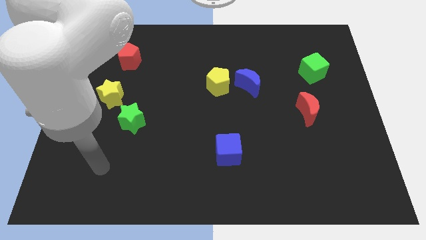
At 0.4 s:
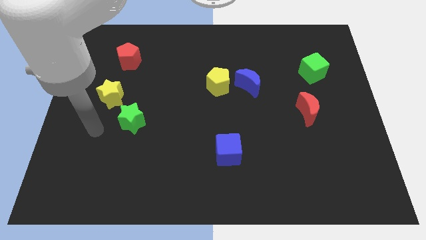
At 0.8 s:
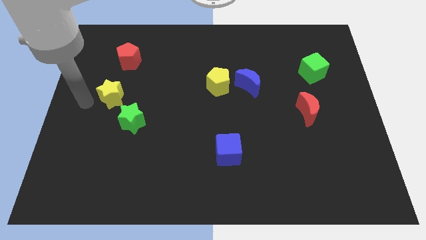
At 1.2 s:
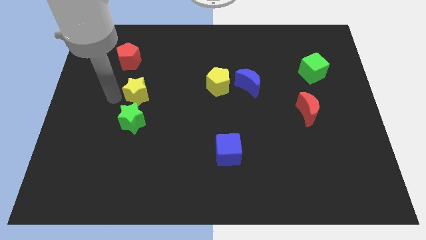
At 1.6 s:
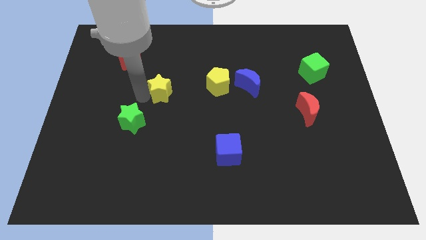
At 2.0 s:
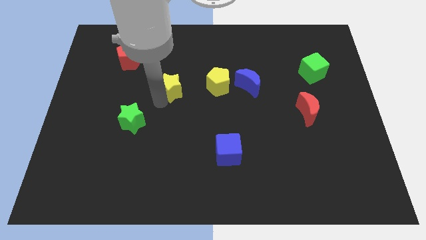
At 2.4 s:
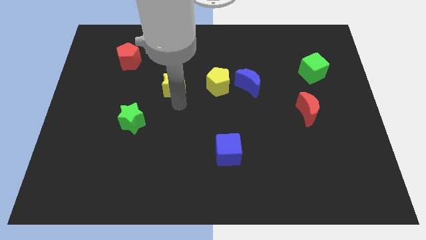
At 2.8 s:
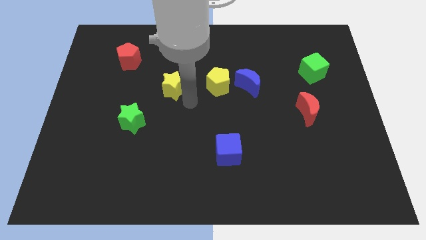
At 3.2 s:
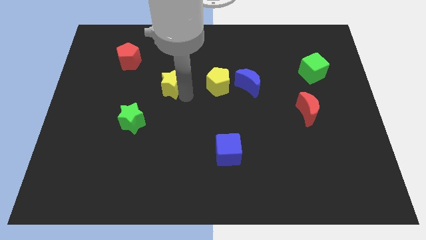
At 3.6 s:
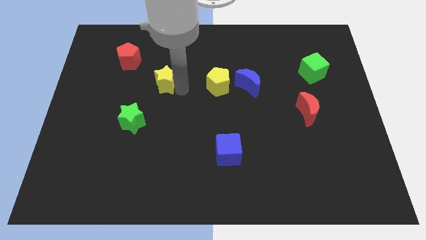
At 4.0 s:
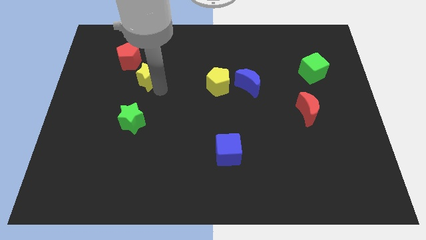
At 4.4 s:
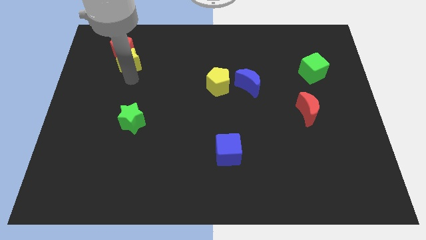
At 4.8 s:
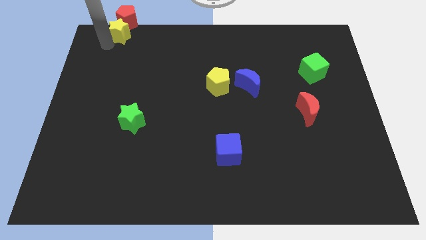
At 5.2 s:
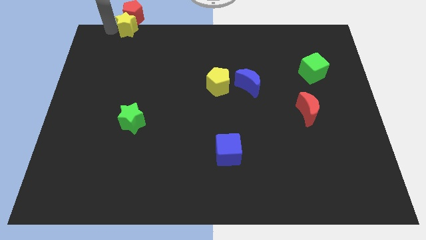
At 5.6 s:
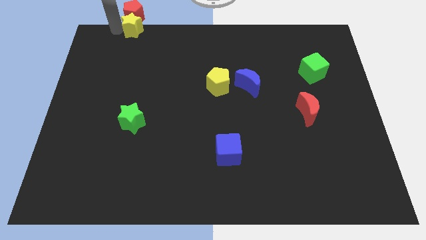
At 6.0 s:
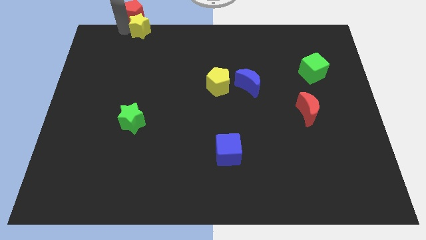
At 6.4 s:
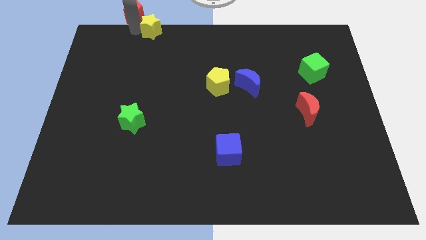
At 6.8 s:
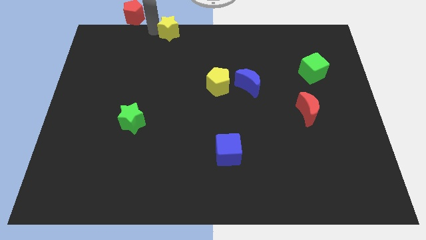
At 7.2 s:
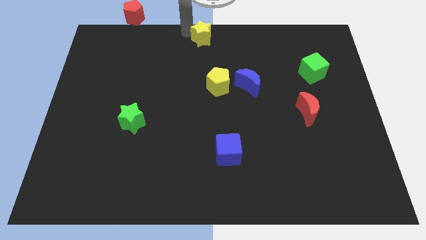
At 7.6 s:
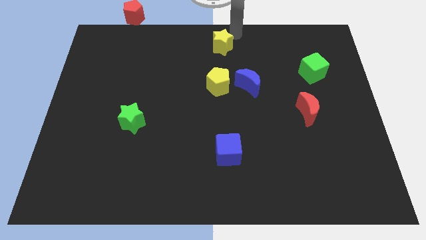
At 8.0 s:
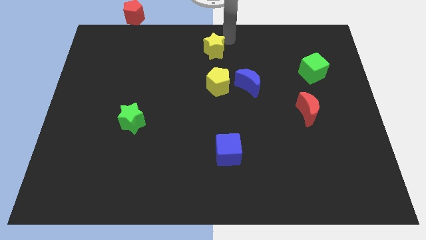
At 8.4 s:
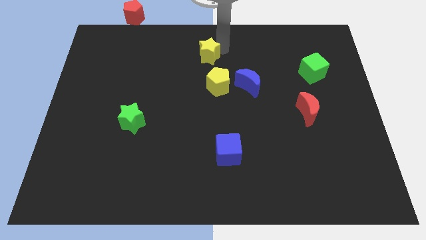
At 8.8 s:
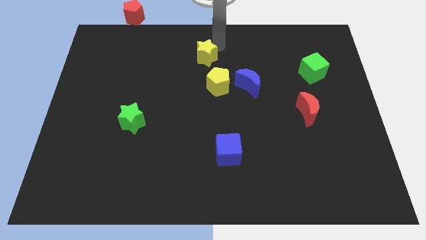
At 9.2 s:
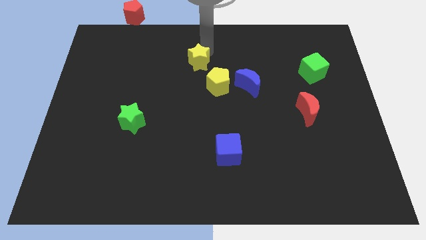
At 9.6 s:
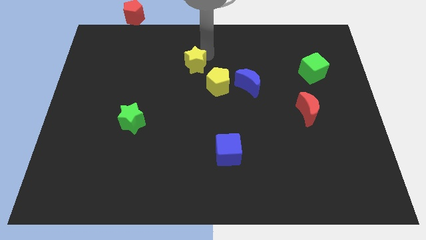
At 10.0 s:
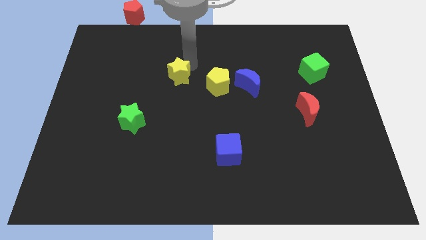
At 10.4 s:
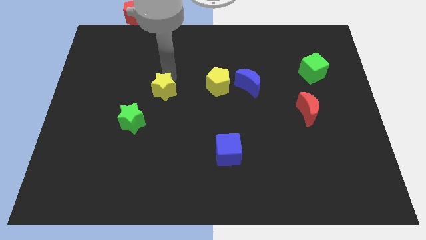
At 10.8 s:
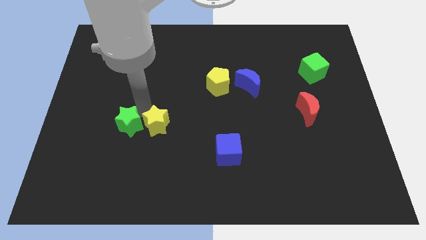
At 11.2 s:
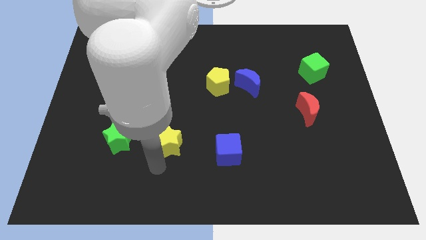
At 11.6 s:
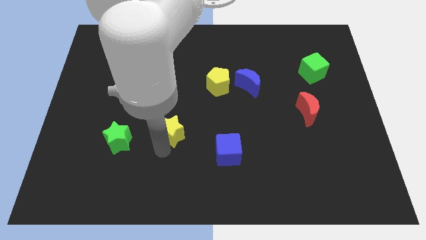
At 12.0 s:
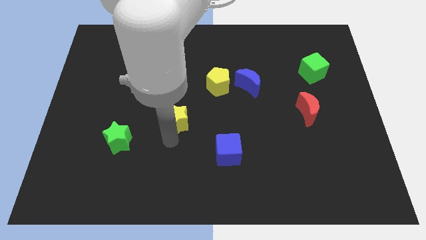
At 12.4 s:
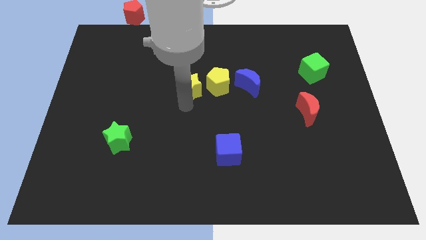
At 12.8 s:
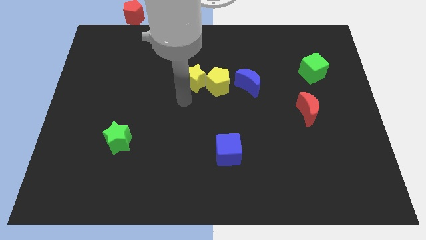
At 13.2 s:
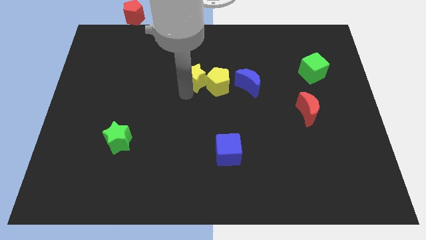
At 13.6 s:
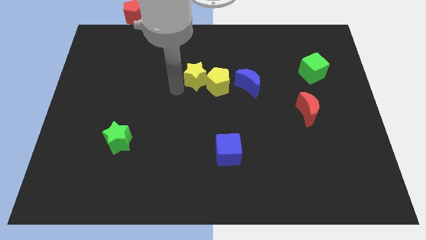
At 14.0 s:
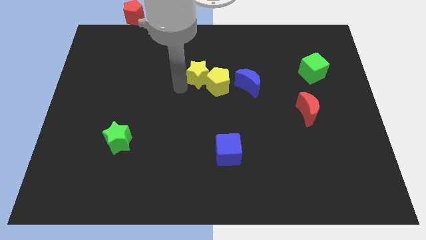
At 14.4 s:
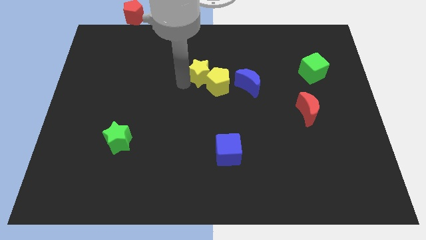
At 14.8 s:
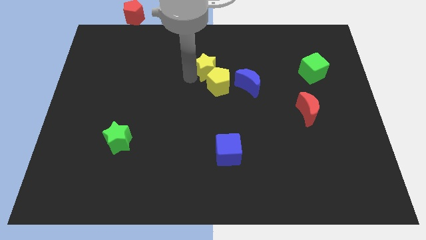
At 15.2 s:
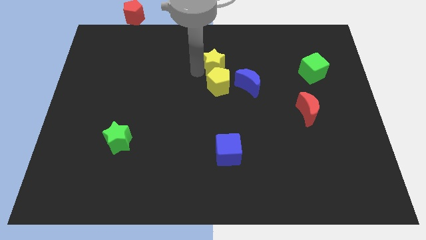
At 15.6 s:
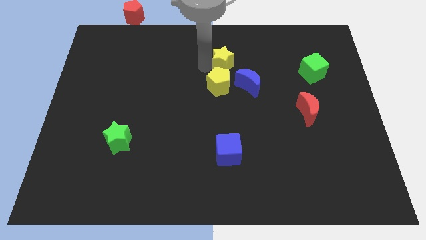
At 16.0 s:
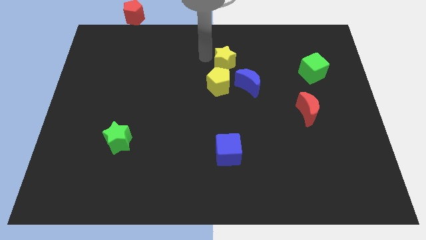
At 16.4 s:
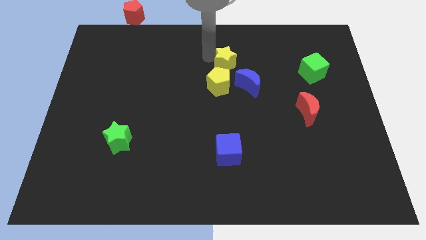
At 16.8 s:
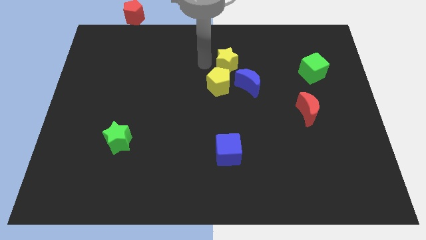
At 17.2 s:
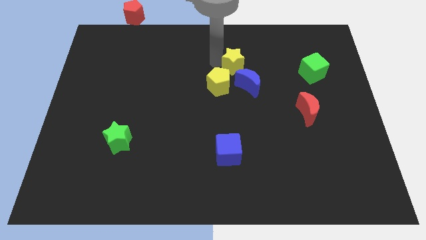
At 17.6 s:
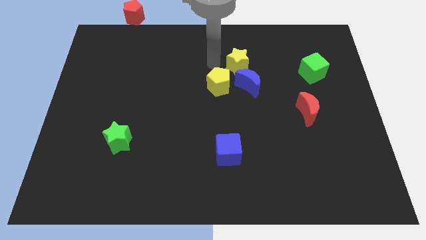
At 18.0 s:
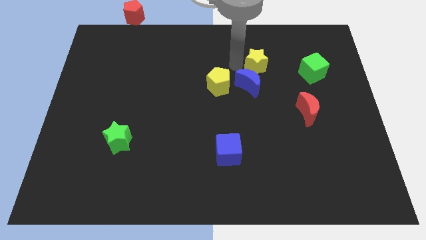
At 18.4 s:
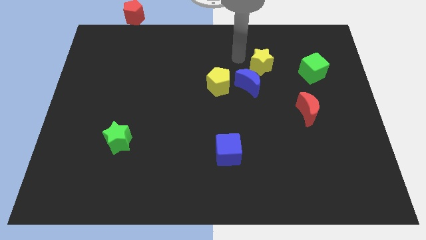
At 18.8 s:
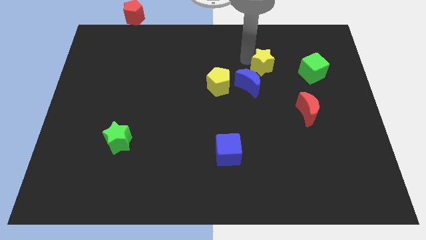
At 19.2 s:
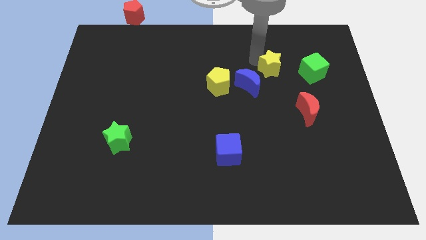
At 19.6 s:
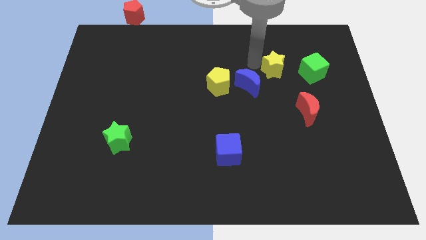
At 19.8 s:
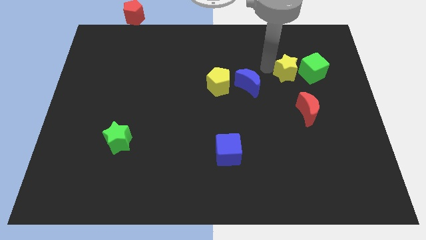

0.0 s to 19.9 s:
slide the yellow star above the red moon

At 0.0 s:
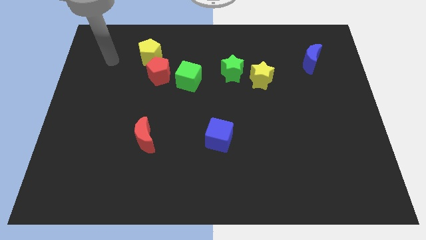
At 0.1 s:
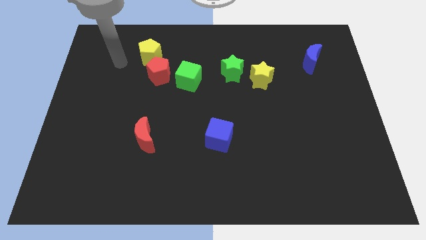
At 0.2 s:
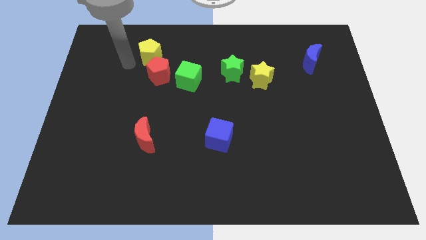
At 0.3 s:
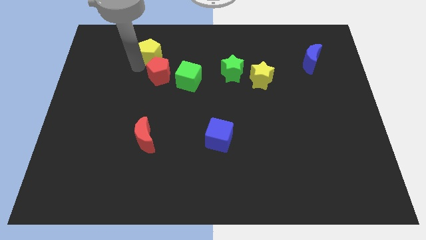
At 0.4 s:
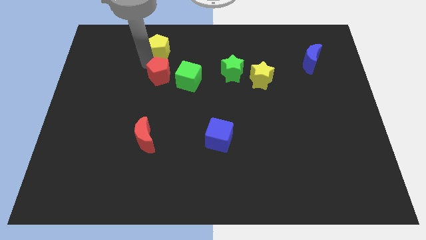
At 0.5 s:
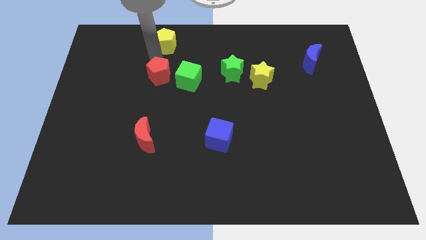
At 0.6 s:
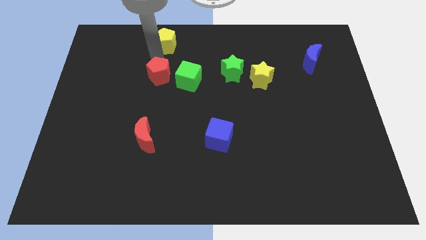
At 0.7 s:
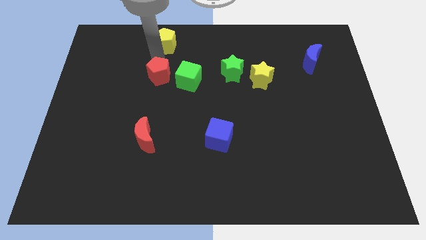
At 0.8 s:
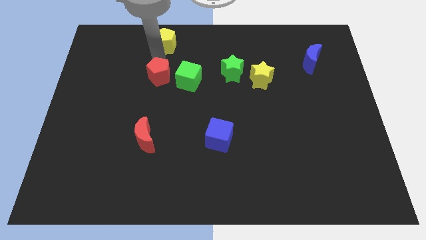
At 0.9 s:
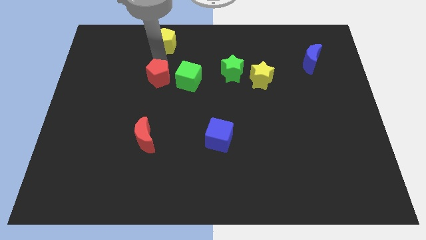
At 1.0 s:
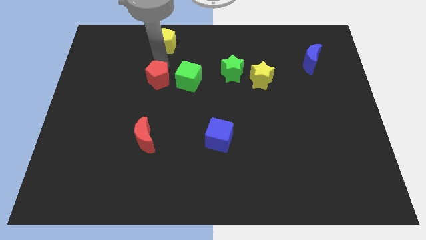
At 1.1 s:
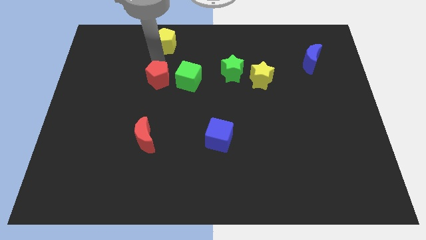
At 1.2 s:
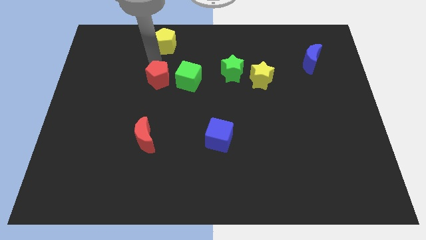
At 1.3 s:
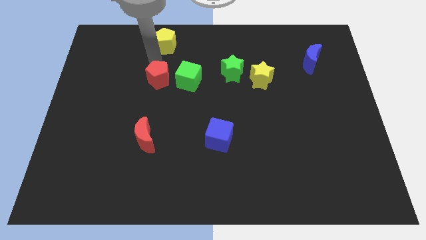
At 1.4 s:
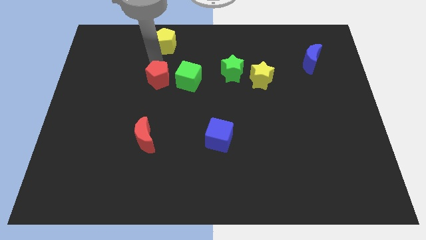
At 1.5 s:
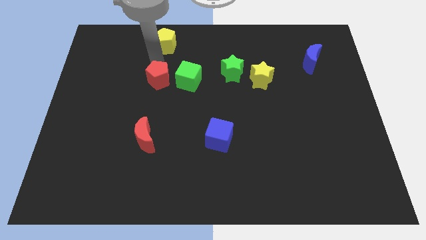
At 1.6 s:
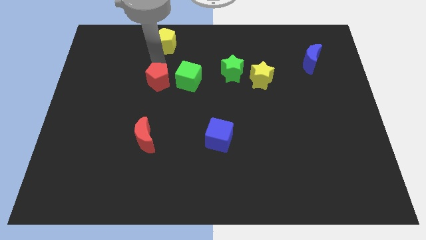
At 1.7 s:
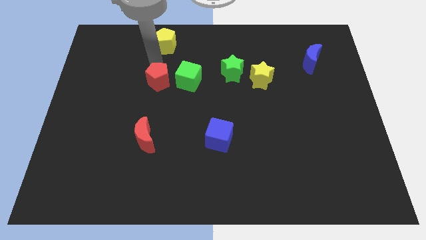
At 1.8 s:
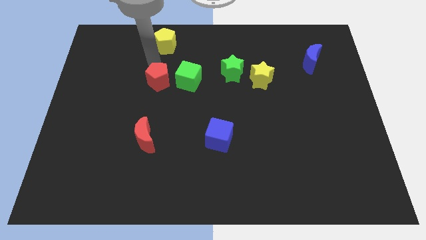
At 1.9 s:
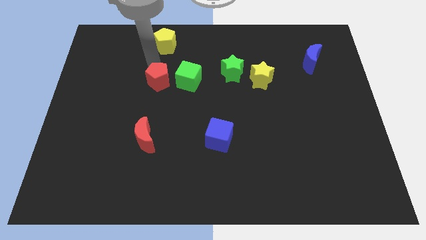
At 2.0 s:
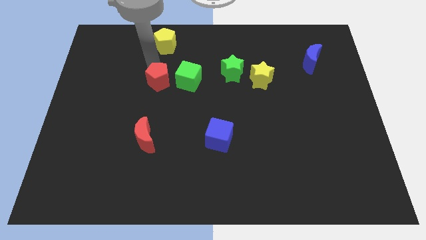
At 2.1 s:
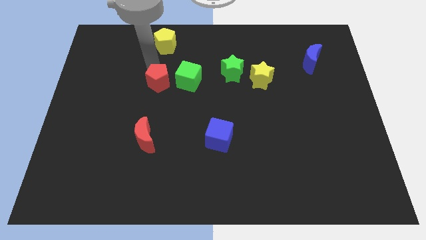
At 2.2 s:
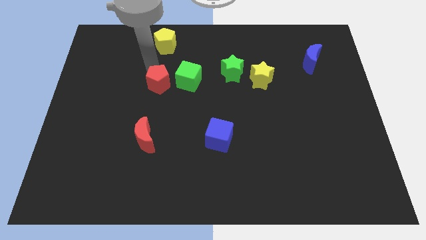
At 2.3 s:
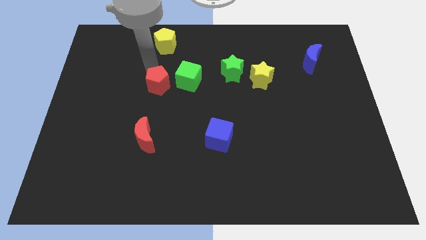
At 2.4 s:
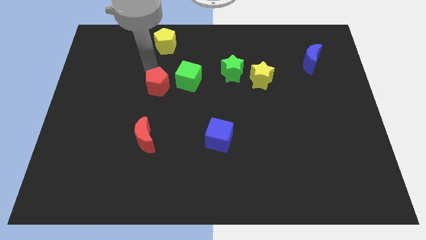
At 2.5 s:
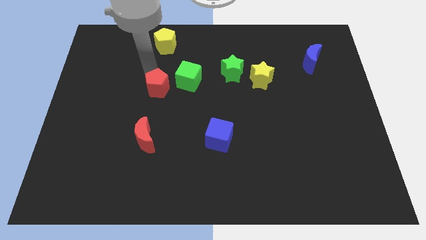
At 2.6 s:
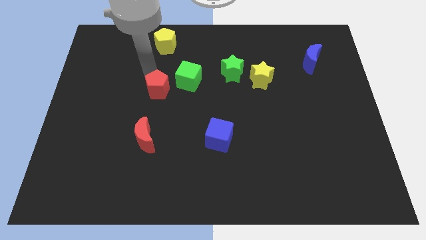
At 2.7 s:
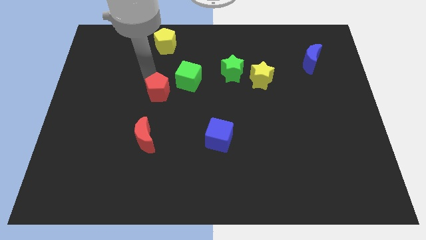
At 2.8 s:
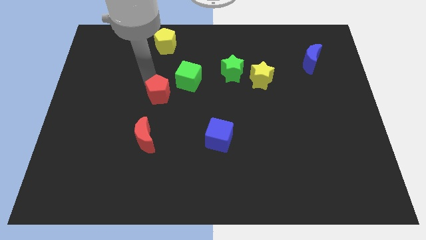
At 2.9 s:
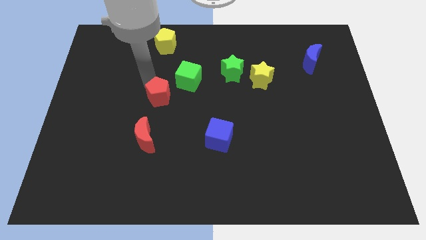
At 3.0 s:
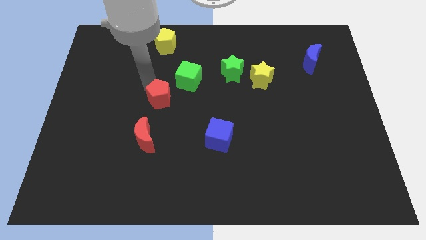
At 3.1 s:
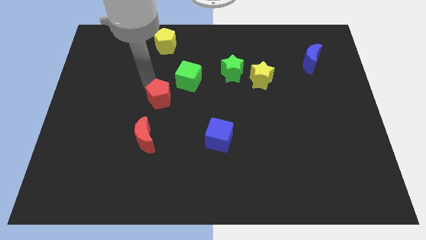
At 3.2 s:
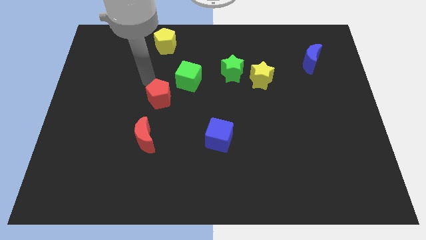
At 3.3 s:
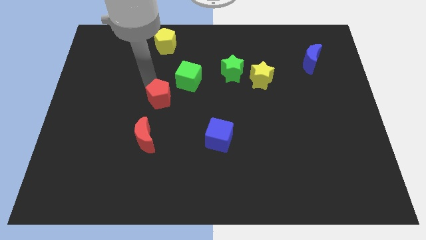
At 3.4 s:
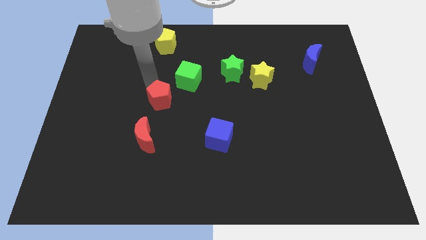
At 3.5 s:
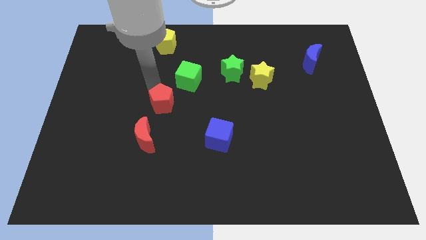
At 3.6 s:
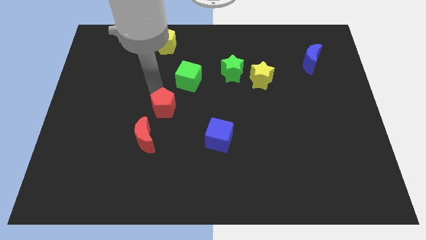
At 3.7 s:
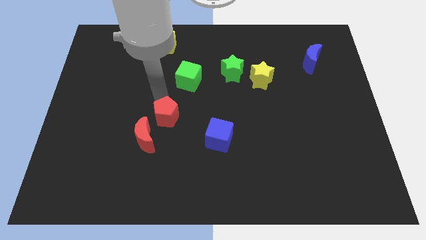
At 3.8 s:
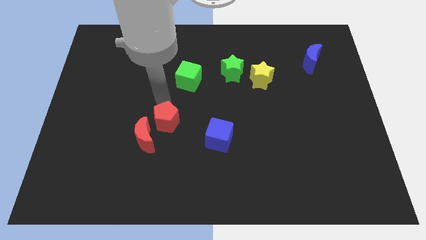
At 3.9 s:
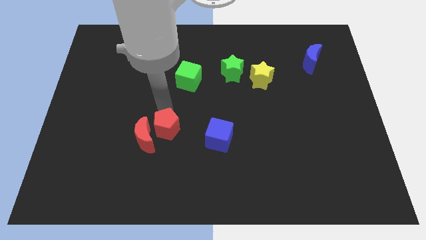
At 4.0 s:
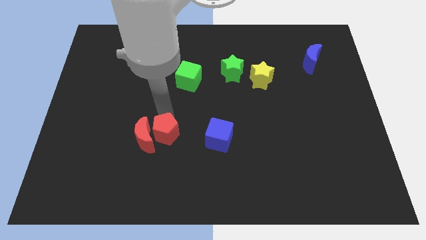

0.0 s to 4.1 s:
put the red pentagon to the bottom right of the red moon
